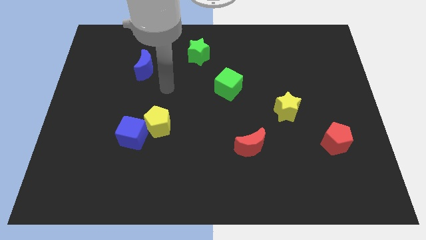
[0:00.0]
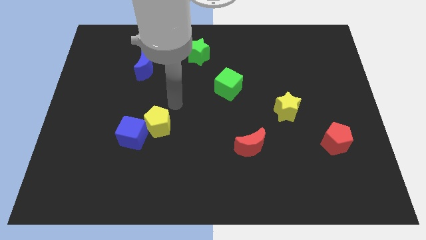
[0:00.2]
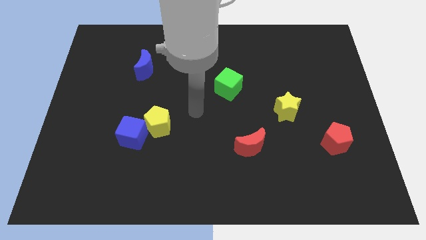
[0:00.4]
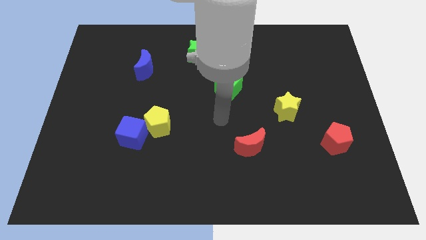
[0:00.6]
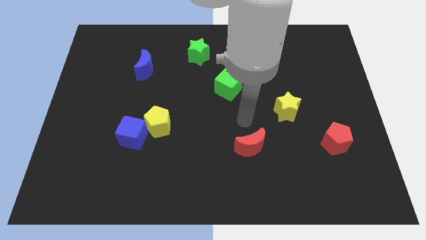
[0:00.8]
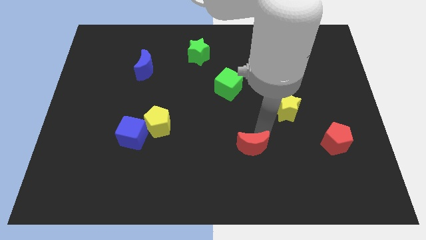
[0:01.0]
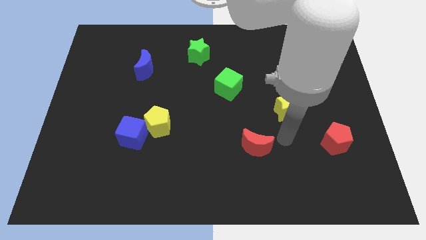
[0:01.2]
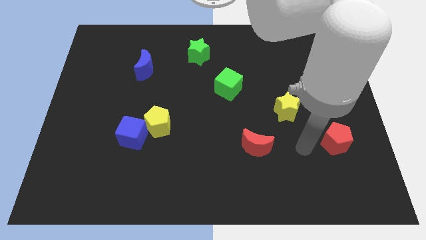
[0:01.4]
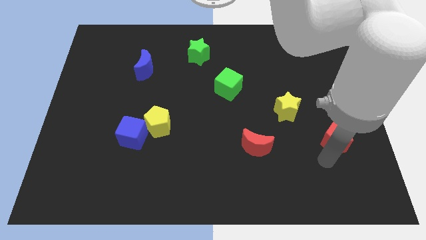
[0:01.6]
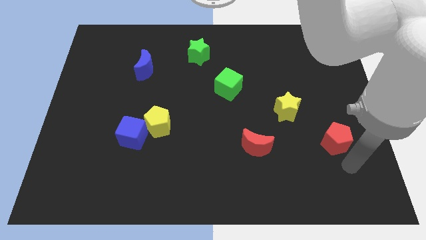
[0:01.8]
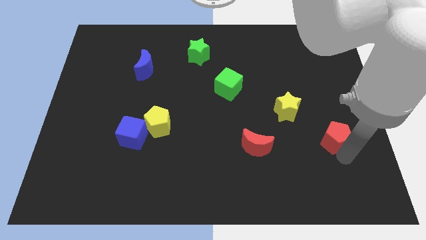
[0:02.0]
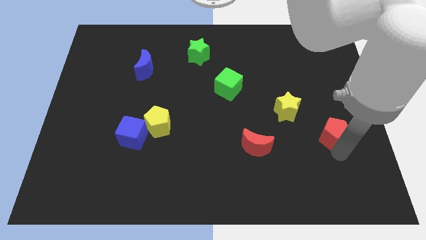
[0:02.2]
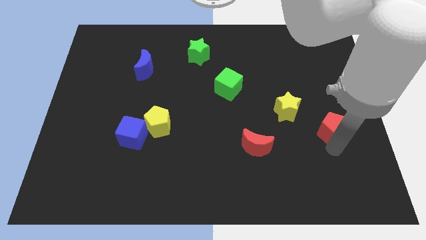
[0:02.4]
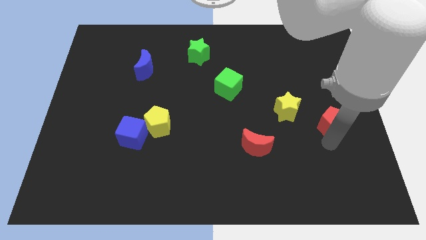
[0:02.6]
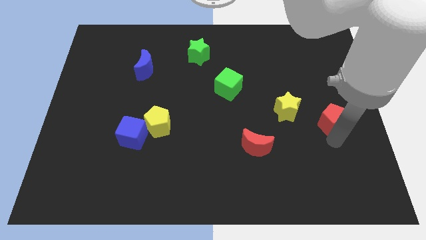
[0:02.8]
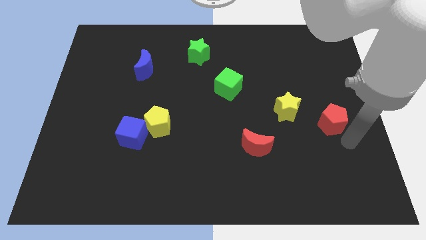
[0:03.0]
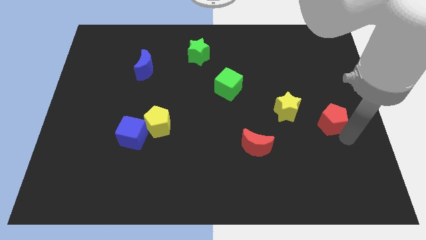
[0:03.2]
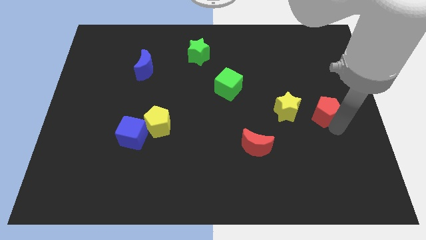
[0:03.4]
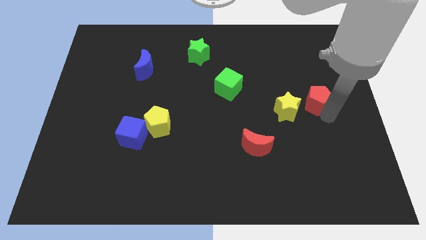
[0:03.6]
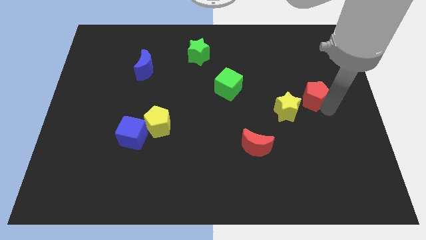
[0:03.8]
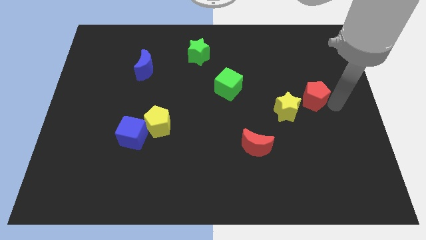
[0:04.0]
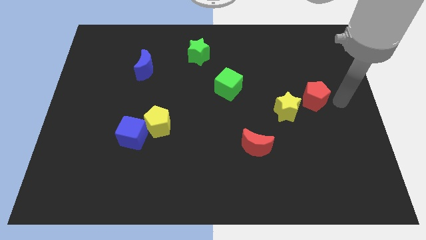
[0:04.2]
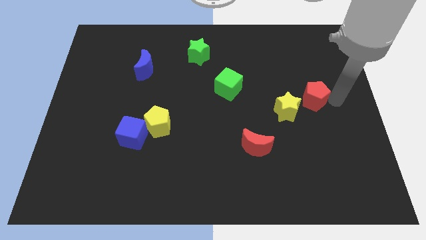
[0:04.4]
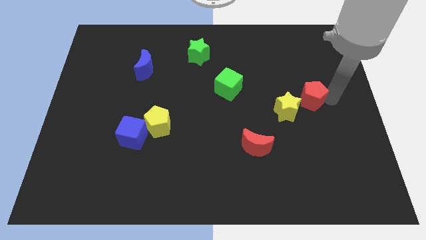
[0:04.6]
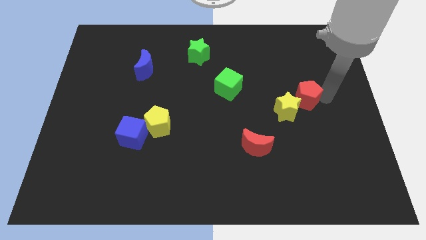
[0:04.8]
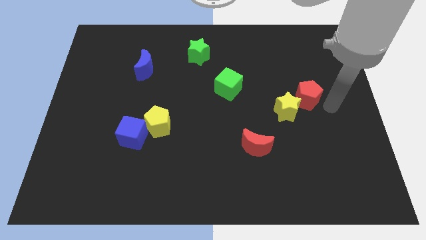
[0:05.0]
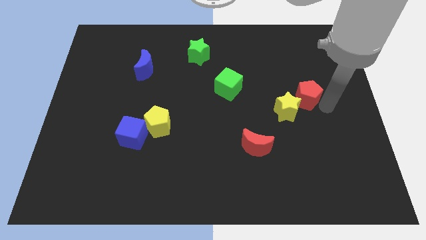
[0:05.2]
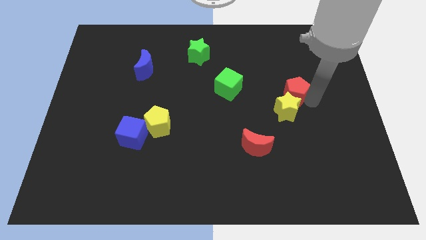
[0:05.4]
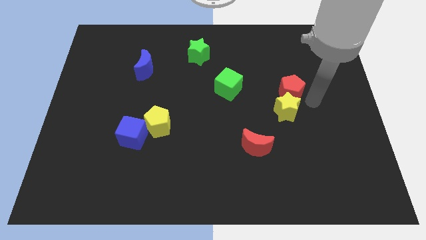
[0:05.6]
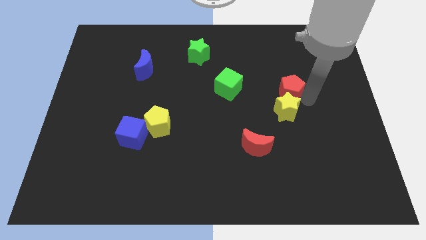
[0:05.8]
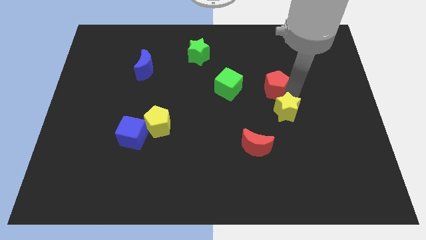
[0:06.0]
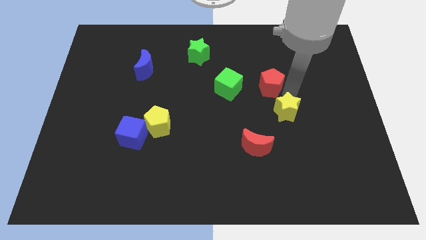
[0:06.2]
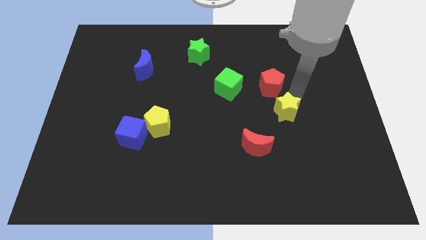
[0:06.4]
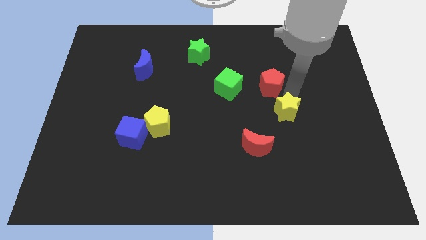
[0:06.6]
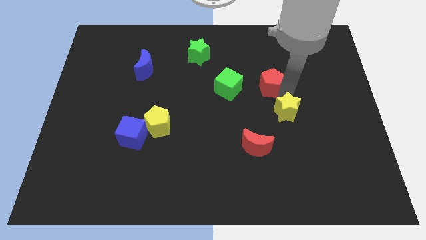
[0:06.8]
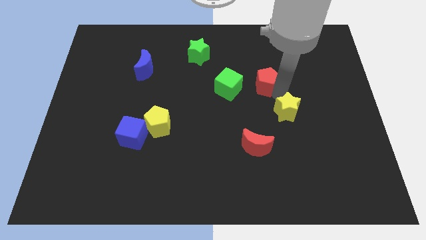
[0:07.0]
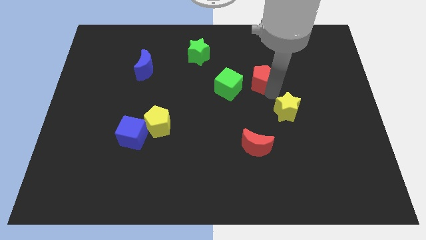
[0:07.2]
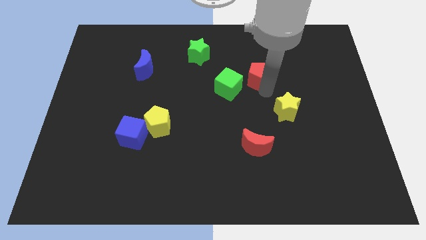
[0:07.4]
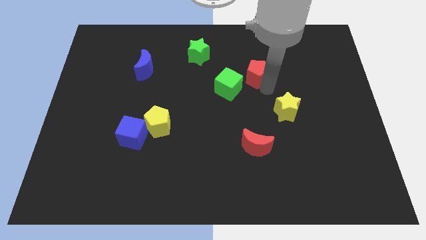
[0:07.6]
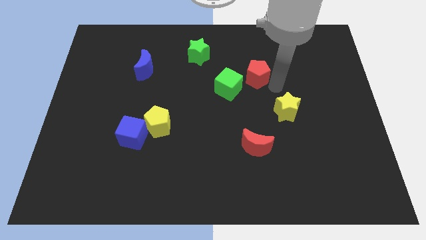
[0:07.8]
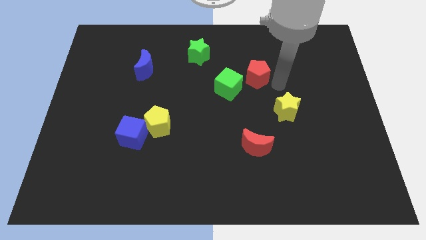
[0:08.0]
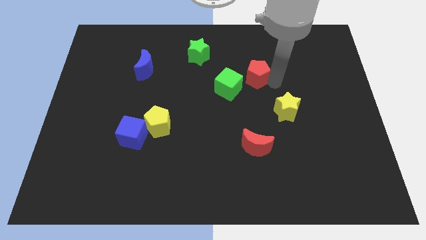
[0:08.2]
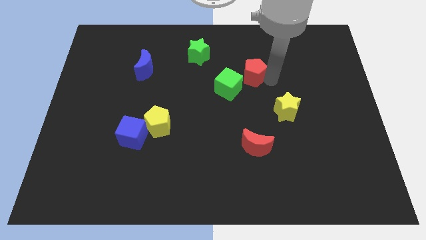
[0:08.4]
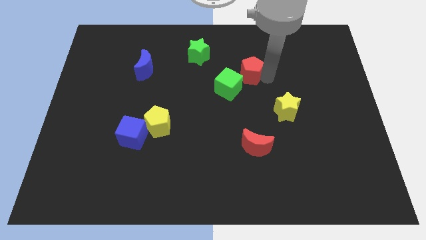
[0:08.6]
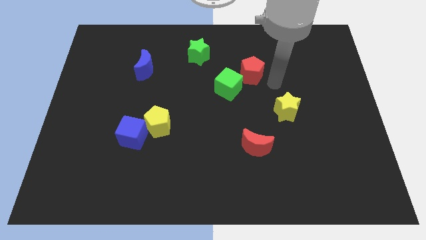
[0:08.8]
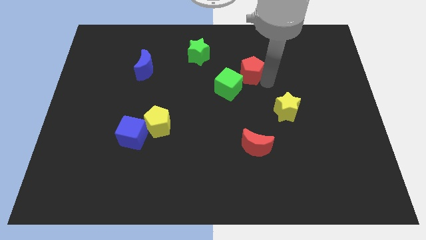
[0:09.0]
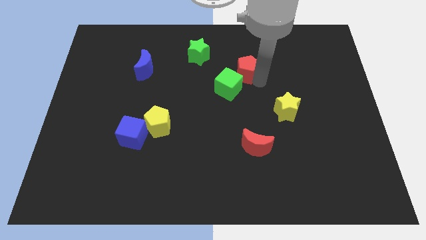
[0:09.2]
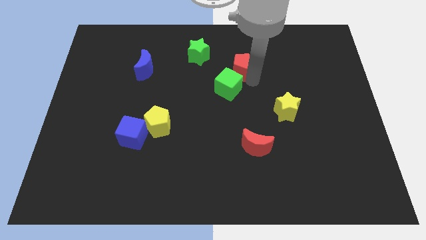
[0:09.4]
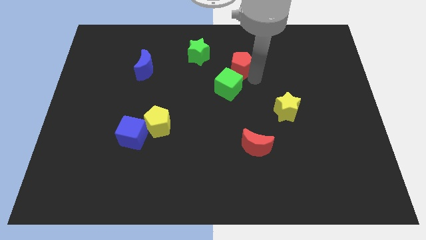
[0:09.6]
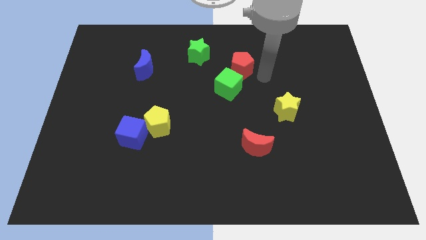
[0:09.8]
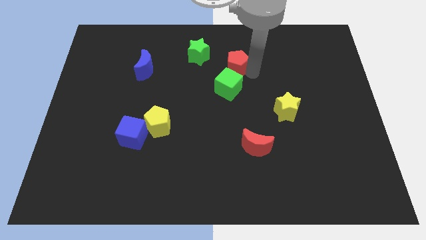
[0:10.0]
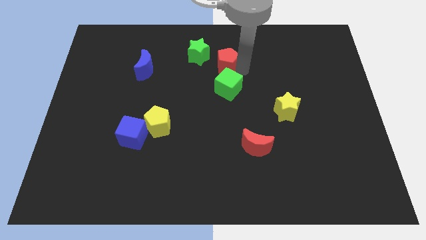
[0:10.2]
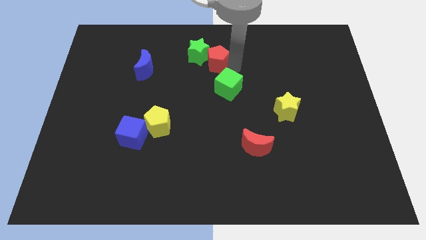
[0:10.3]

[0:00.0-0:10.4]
move the red pentagon next to the green star

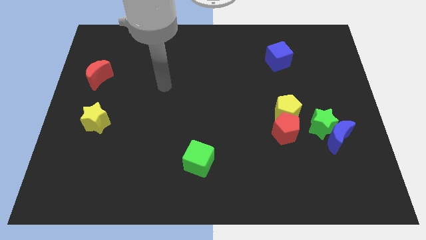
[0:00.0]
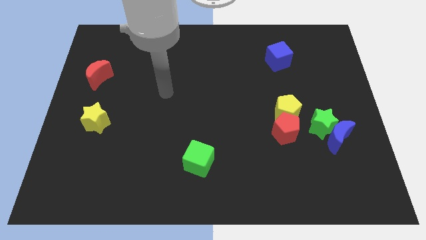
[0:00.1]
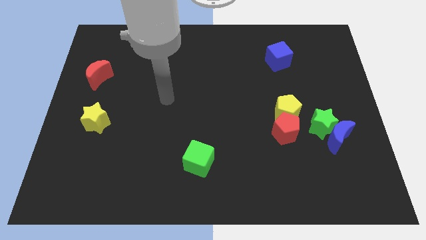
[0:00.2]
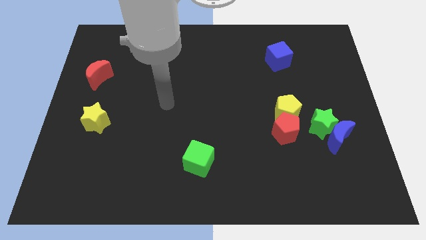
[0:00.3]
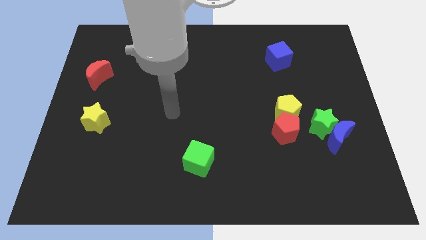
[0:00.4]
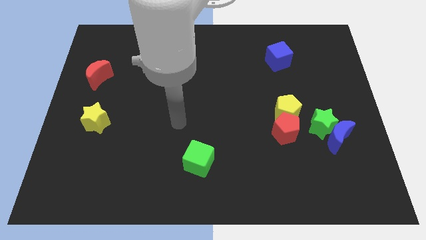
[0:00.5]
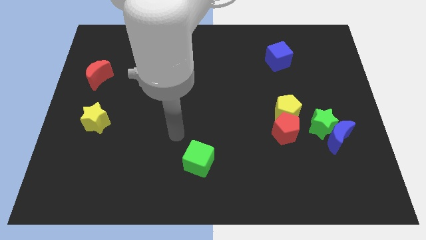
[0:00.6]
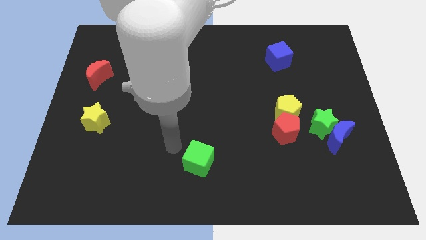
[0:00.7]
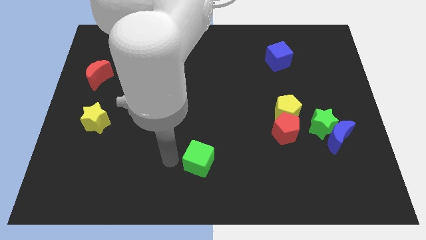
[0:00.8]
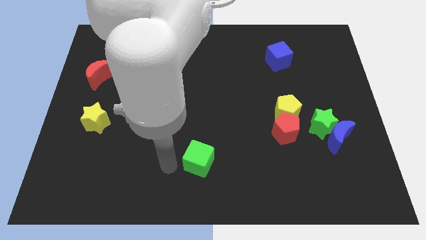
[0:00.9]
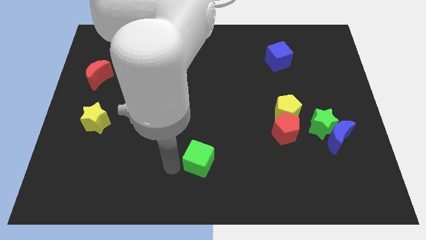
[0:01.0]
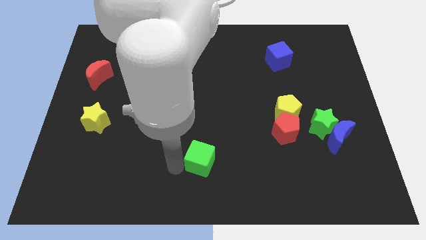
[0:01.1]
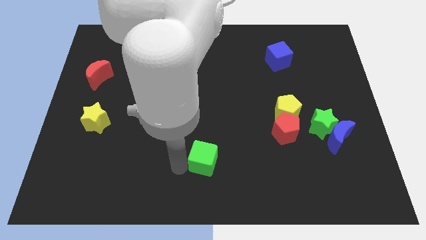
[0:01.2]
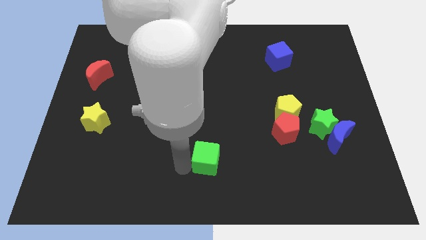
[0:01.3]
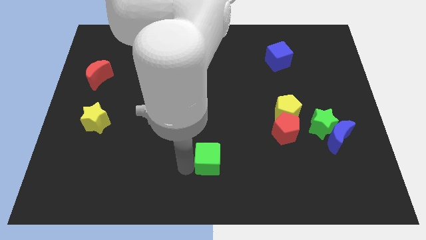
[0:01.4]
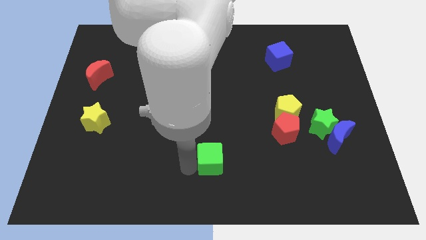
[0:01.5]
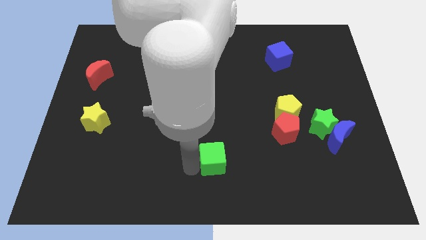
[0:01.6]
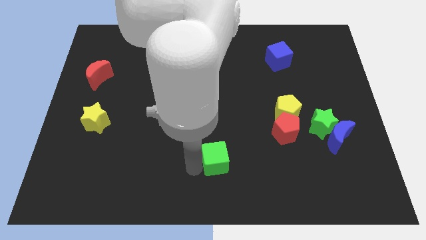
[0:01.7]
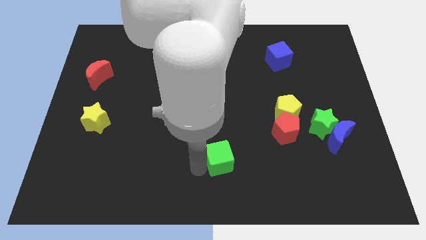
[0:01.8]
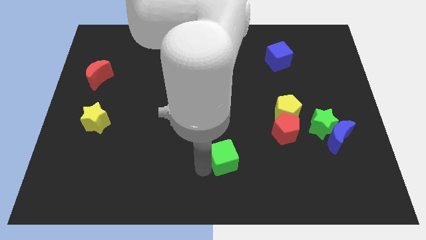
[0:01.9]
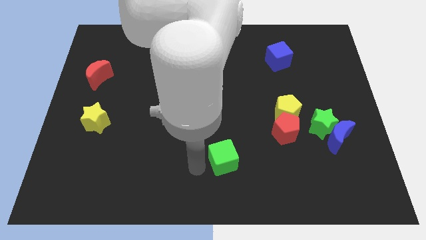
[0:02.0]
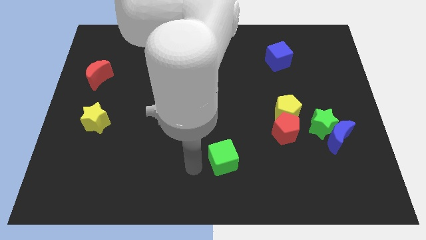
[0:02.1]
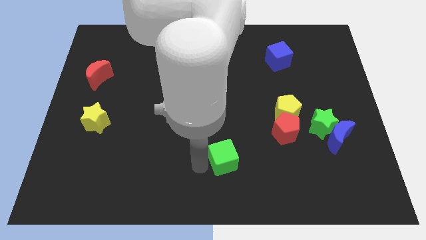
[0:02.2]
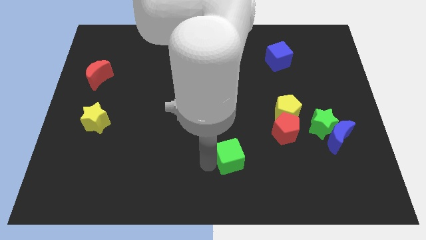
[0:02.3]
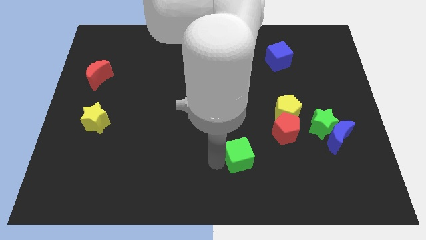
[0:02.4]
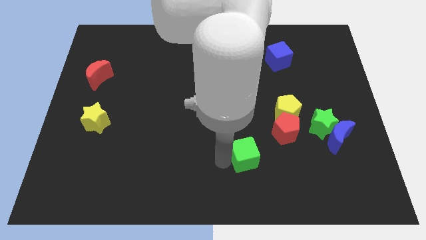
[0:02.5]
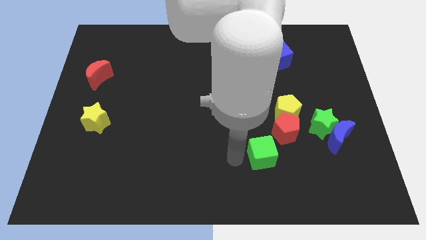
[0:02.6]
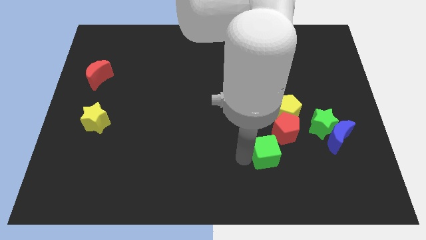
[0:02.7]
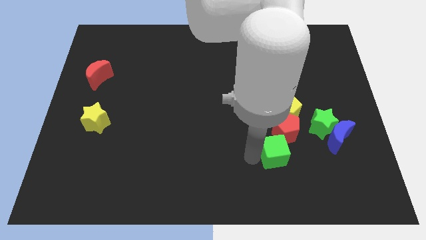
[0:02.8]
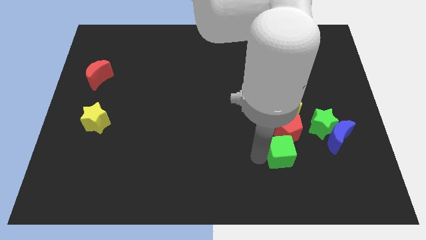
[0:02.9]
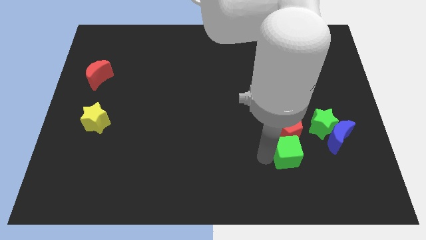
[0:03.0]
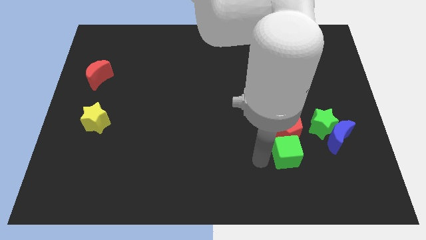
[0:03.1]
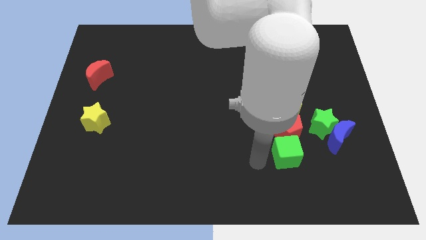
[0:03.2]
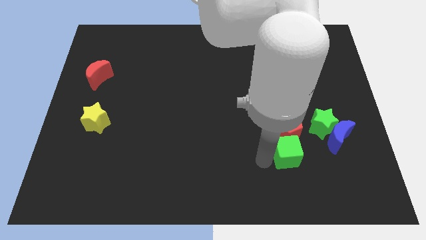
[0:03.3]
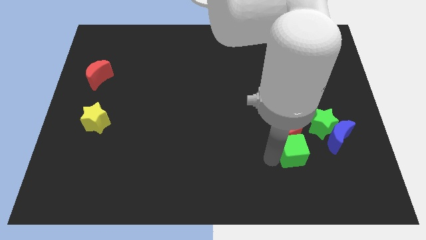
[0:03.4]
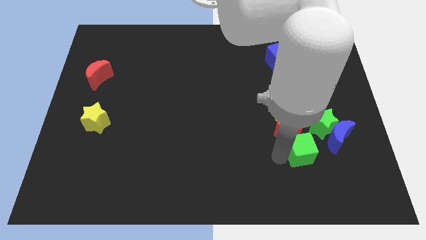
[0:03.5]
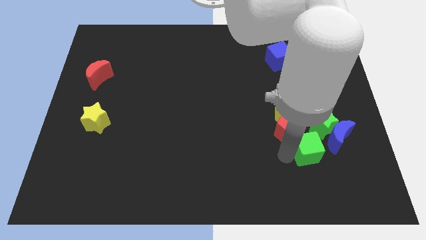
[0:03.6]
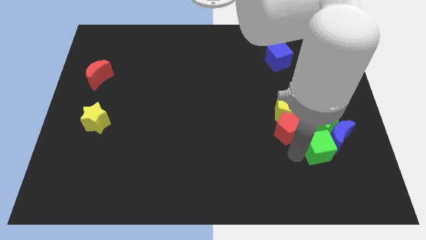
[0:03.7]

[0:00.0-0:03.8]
slide the green cube close to the blue moon
